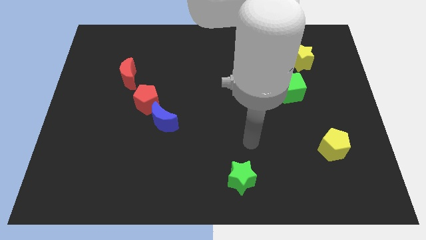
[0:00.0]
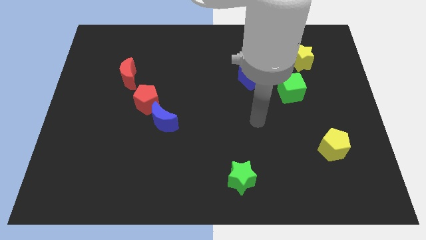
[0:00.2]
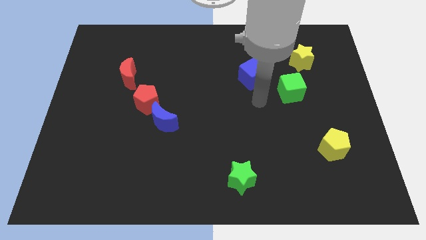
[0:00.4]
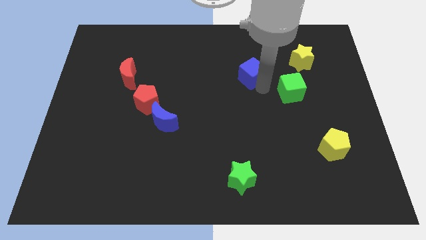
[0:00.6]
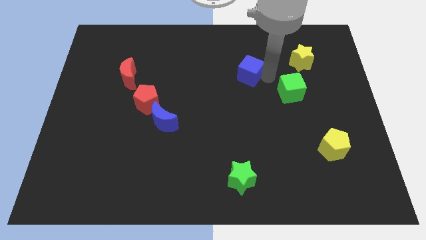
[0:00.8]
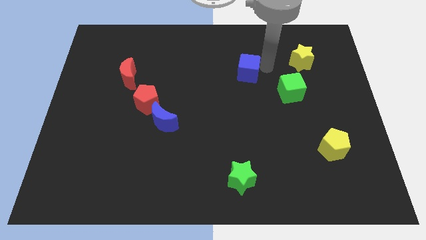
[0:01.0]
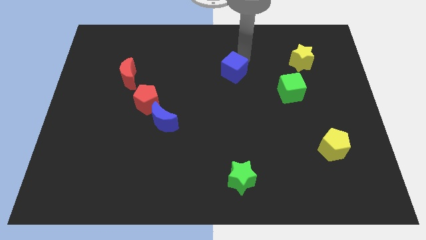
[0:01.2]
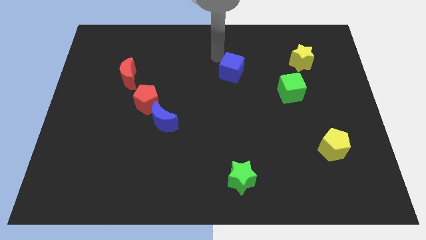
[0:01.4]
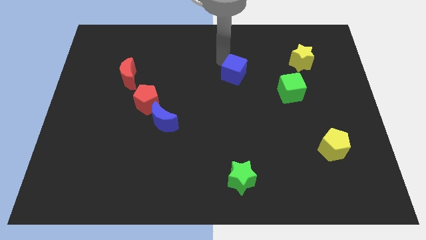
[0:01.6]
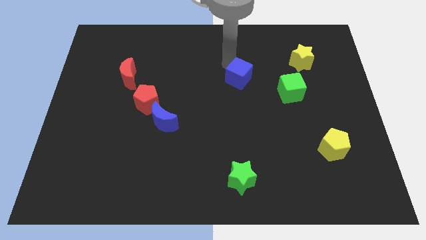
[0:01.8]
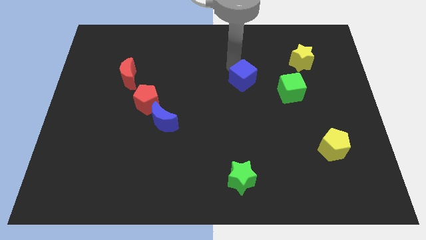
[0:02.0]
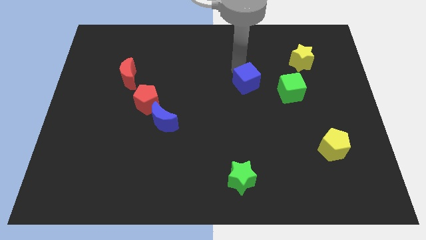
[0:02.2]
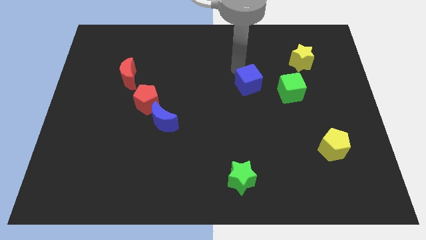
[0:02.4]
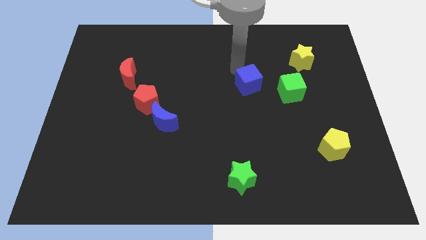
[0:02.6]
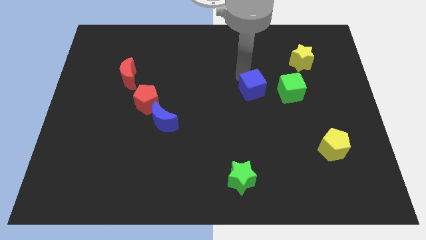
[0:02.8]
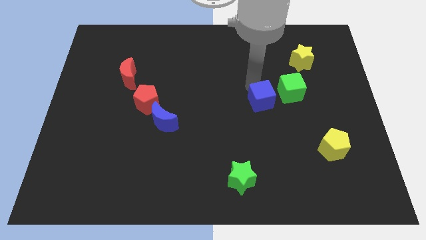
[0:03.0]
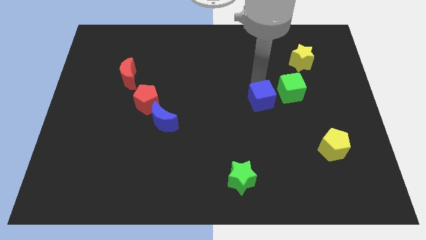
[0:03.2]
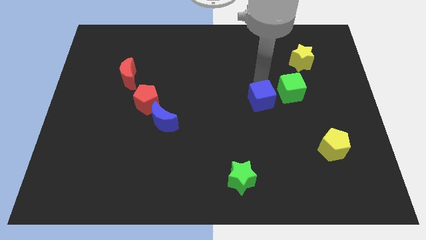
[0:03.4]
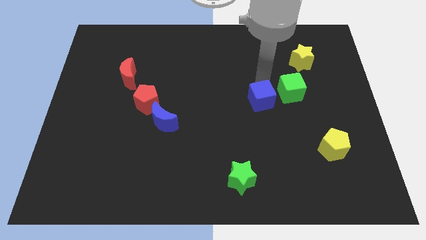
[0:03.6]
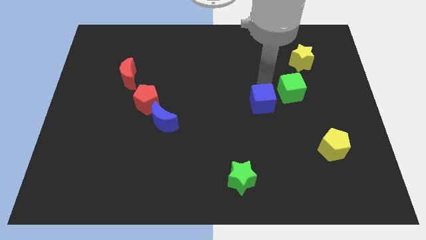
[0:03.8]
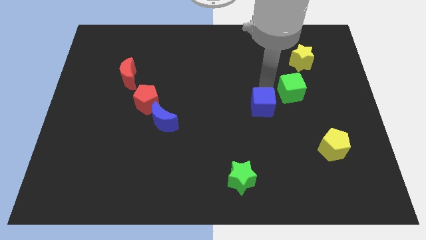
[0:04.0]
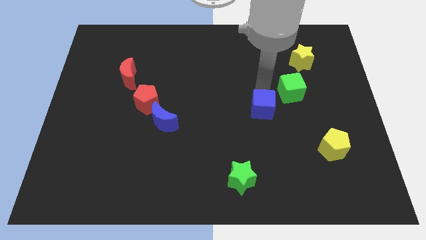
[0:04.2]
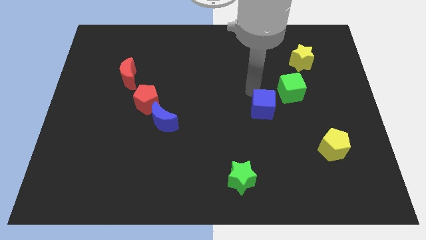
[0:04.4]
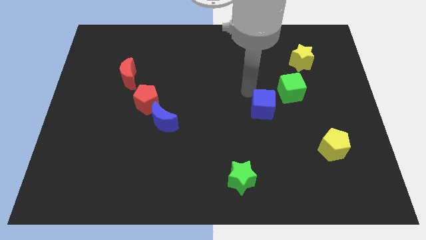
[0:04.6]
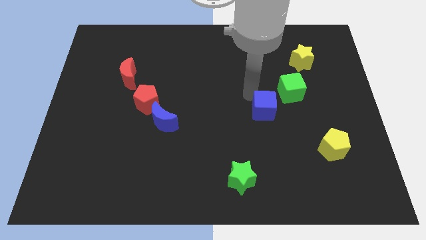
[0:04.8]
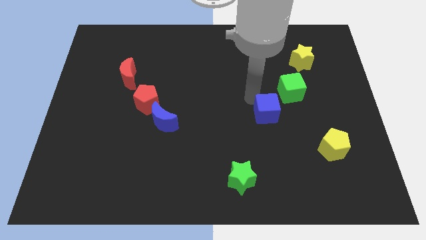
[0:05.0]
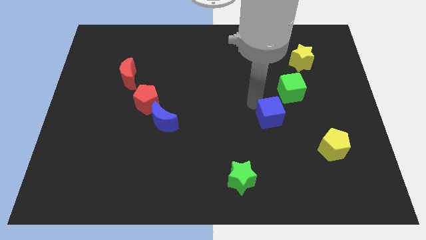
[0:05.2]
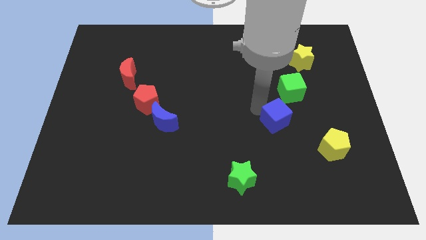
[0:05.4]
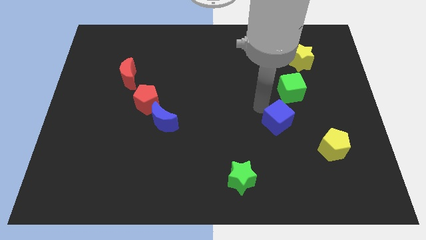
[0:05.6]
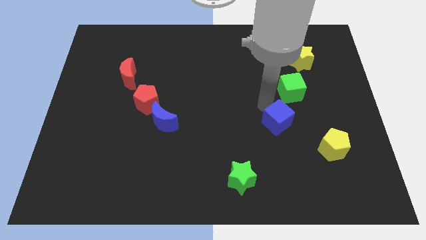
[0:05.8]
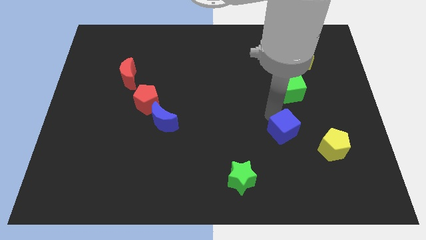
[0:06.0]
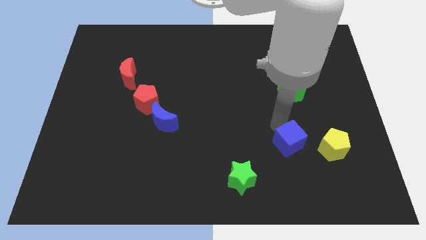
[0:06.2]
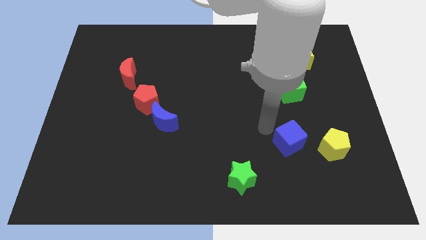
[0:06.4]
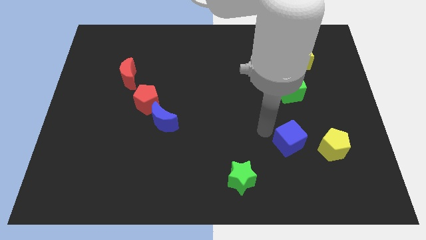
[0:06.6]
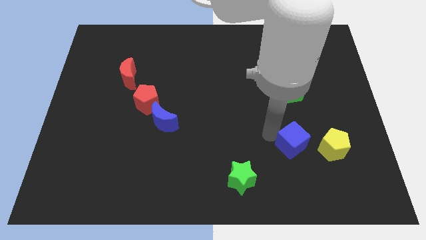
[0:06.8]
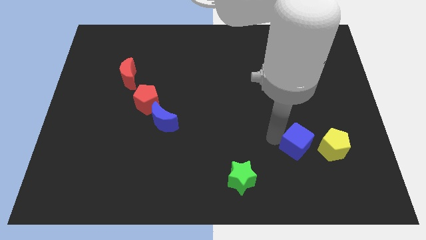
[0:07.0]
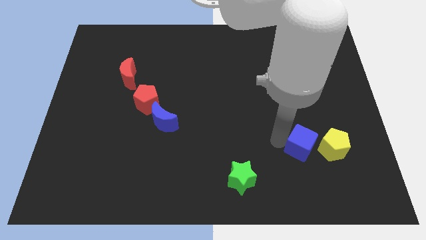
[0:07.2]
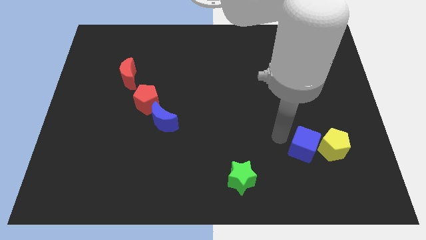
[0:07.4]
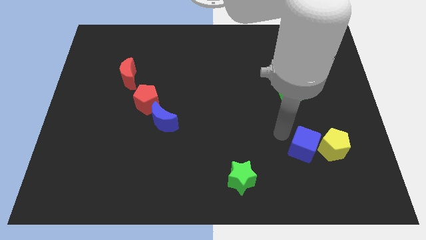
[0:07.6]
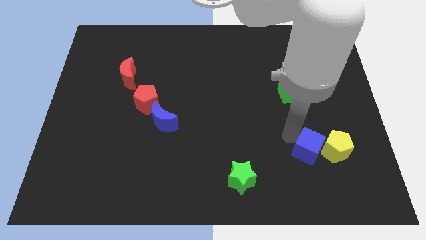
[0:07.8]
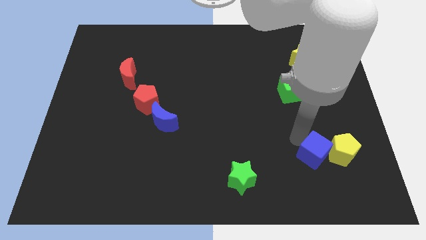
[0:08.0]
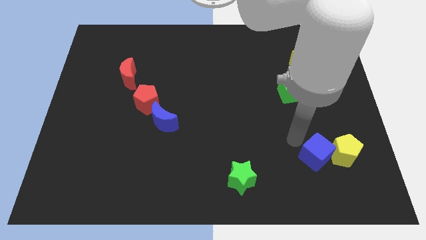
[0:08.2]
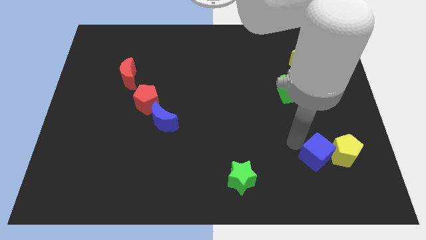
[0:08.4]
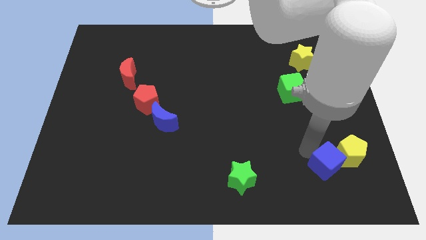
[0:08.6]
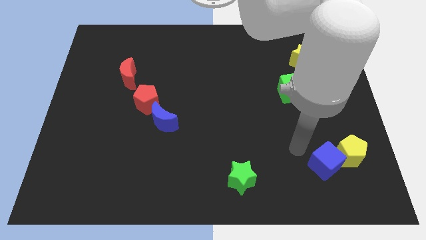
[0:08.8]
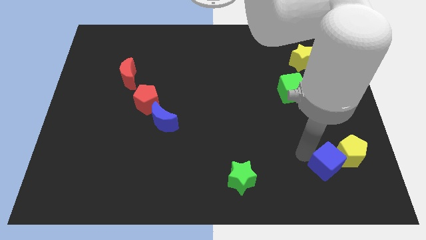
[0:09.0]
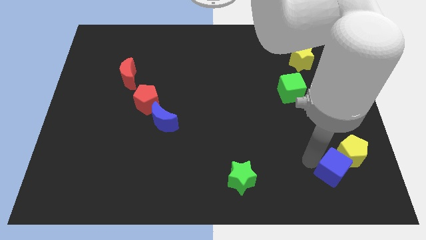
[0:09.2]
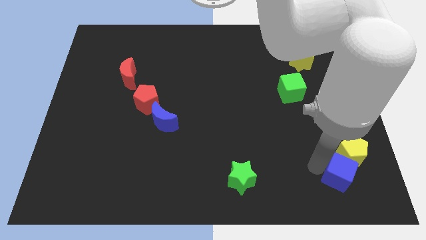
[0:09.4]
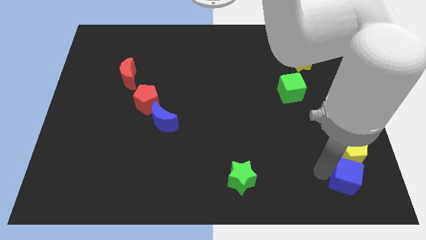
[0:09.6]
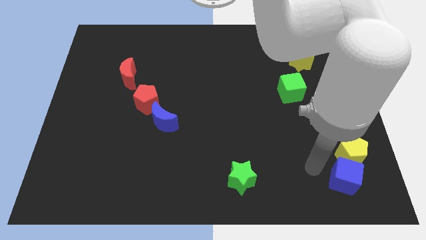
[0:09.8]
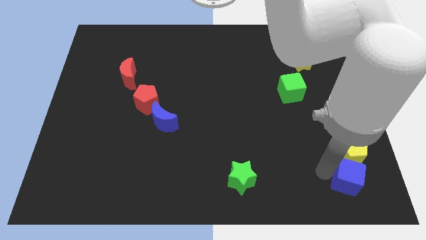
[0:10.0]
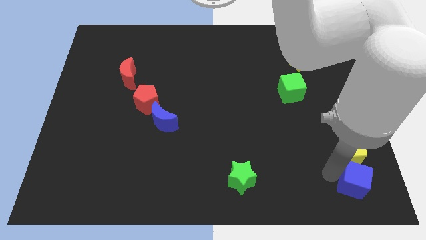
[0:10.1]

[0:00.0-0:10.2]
put the blue cube to the bottom right

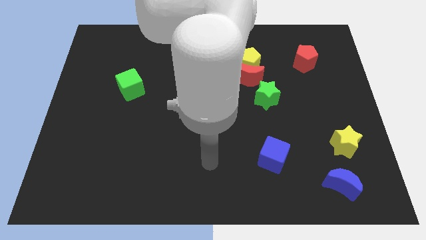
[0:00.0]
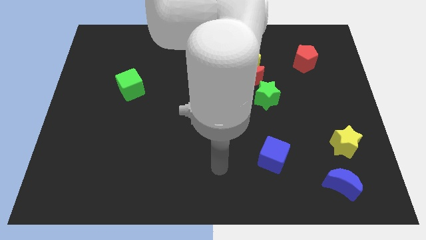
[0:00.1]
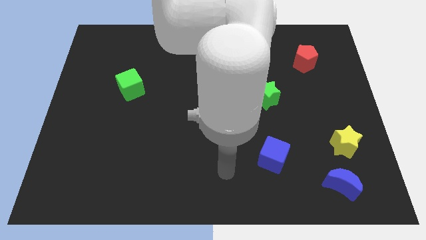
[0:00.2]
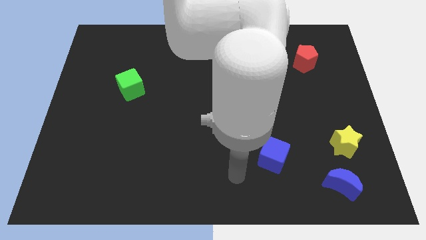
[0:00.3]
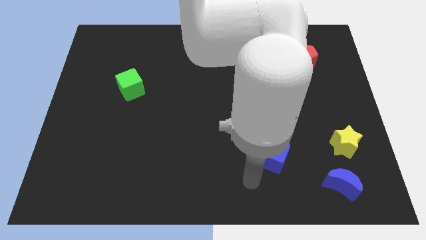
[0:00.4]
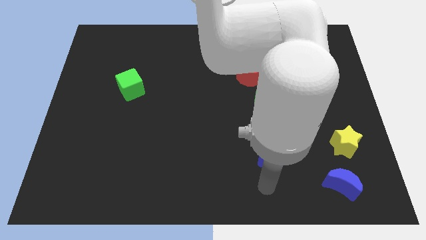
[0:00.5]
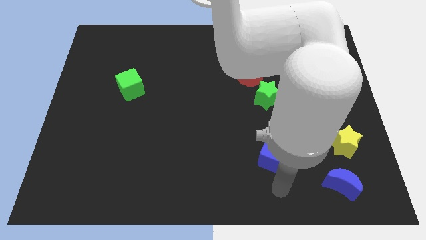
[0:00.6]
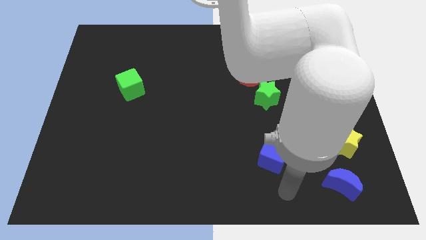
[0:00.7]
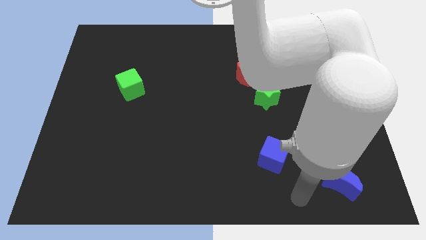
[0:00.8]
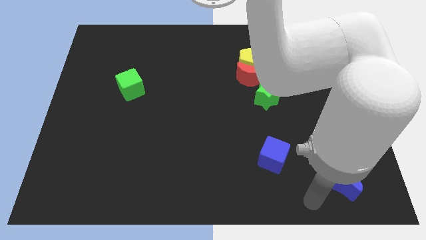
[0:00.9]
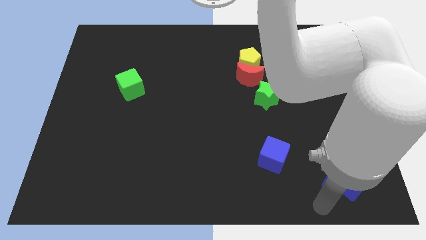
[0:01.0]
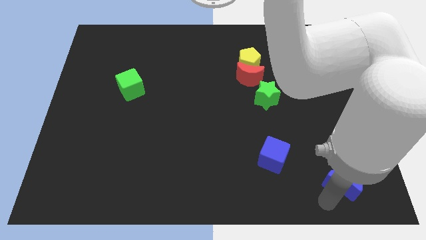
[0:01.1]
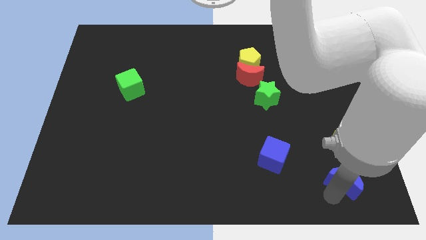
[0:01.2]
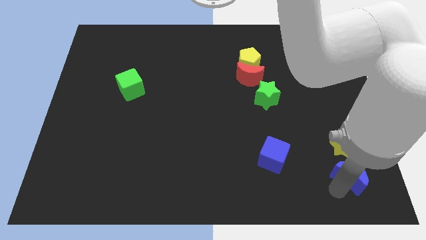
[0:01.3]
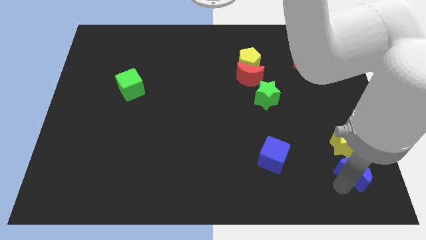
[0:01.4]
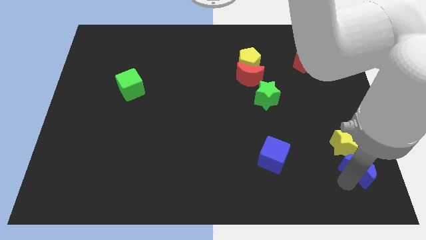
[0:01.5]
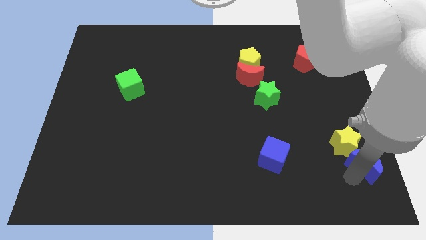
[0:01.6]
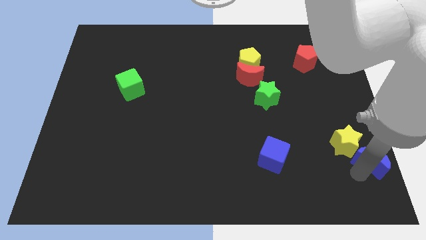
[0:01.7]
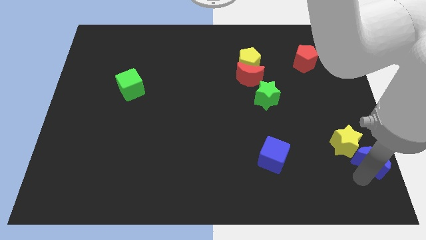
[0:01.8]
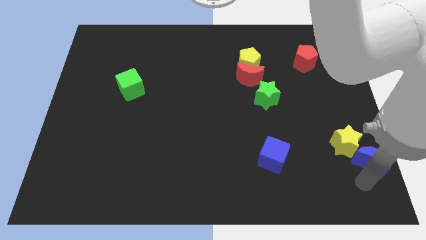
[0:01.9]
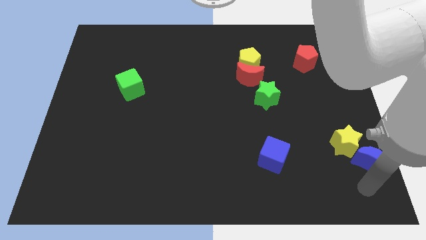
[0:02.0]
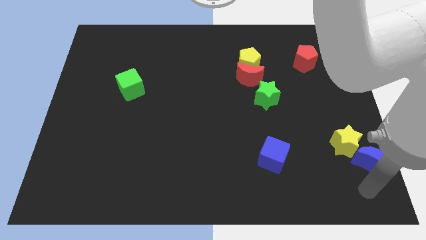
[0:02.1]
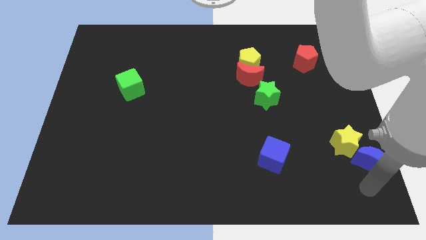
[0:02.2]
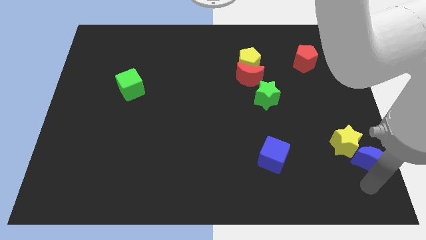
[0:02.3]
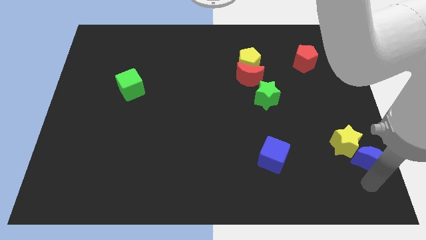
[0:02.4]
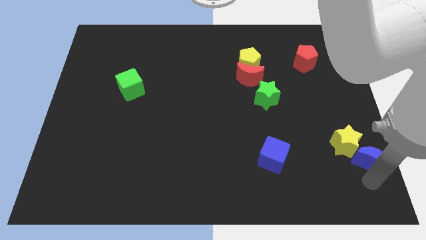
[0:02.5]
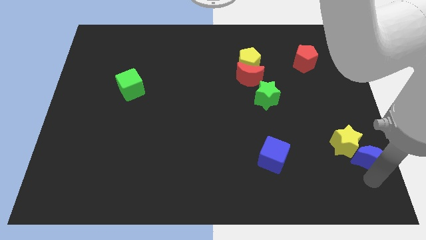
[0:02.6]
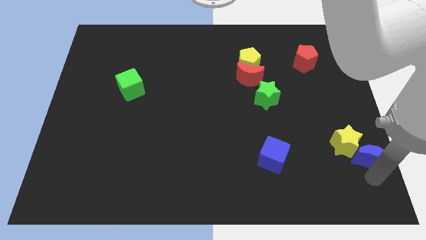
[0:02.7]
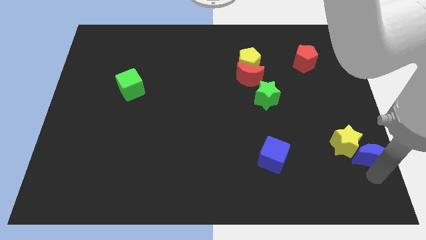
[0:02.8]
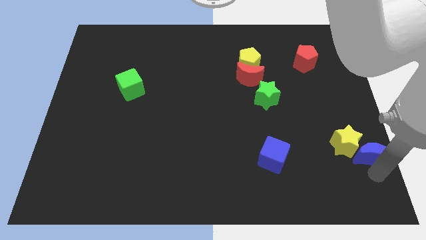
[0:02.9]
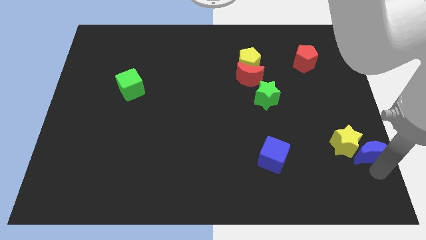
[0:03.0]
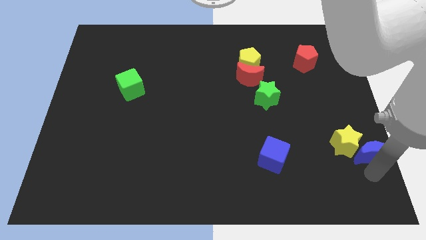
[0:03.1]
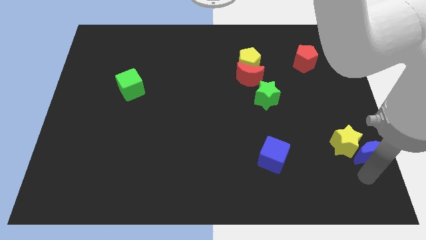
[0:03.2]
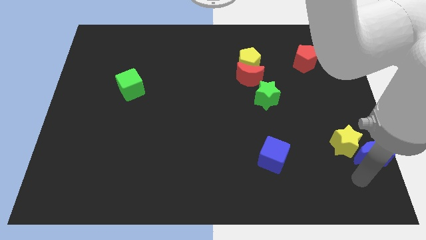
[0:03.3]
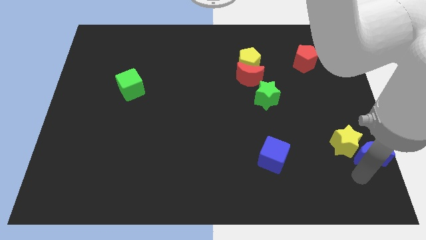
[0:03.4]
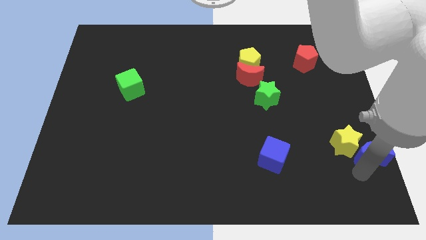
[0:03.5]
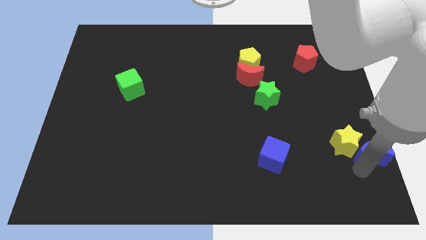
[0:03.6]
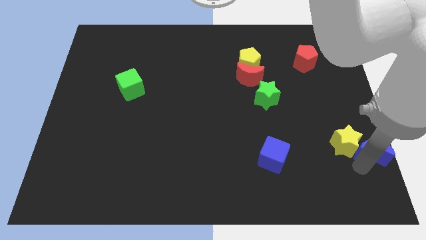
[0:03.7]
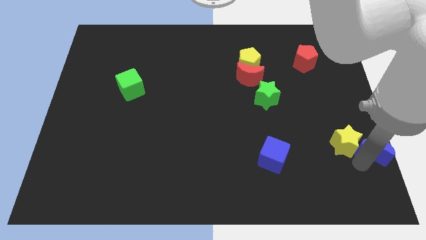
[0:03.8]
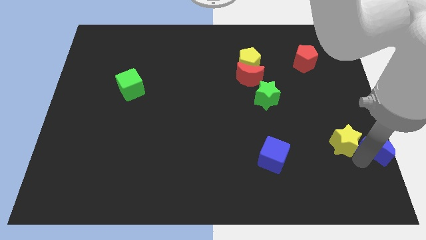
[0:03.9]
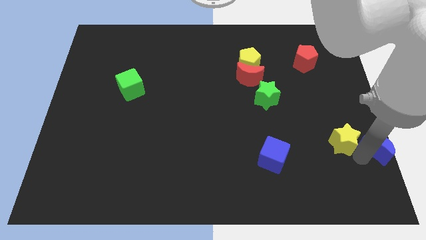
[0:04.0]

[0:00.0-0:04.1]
slide the blue moon to the center right
